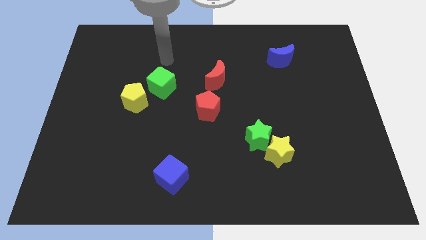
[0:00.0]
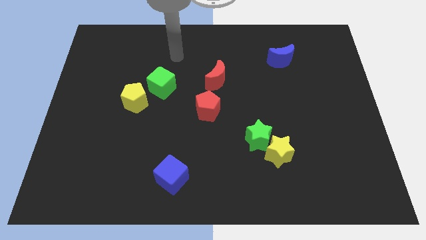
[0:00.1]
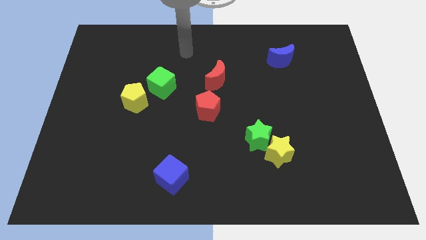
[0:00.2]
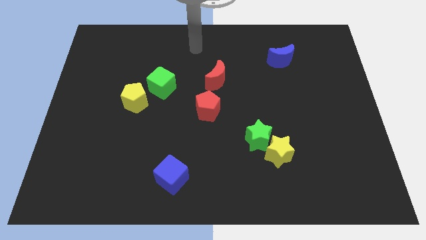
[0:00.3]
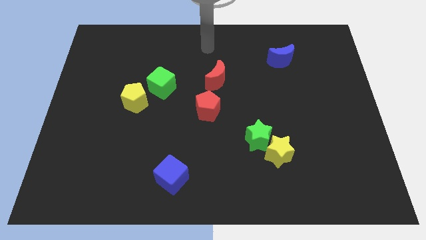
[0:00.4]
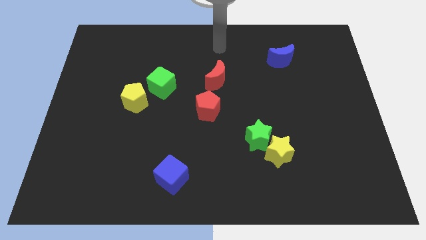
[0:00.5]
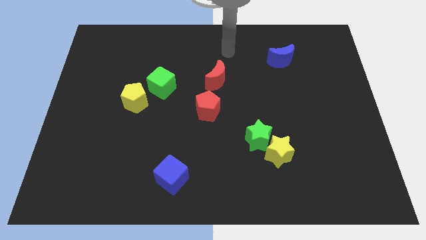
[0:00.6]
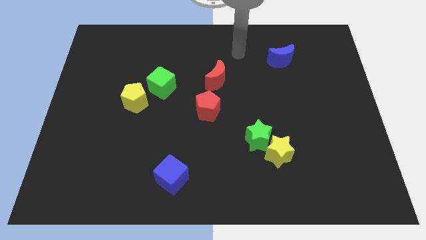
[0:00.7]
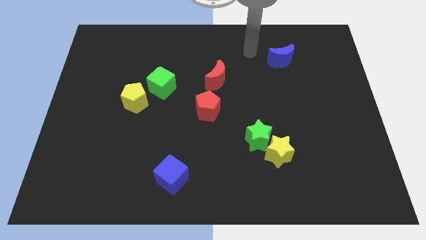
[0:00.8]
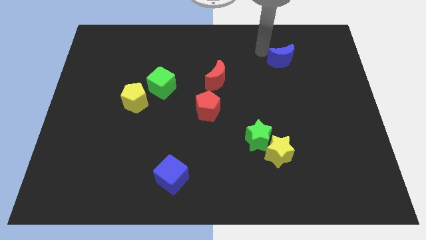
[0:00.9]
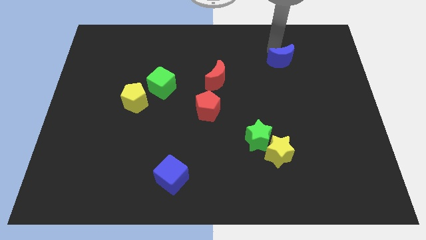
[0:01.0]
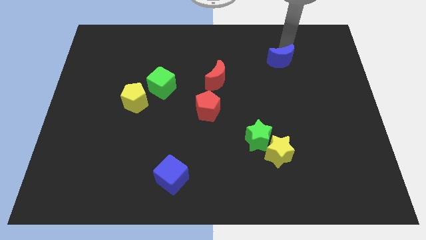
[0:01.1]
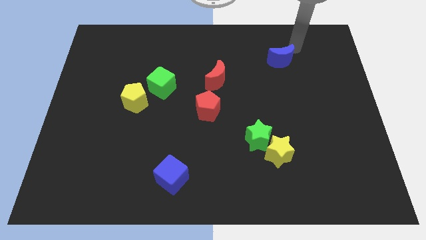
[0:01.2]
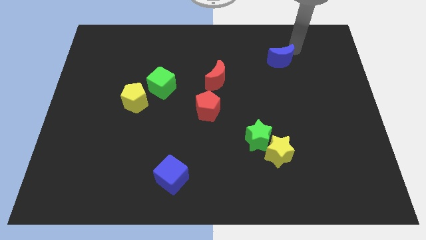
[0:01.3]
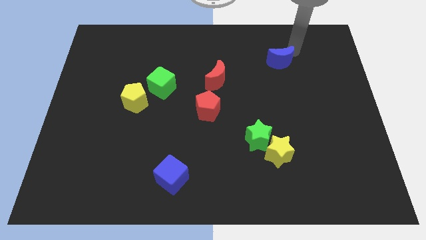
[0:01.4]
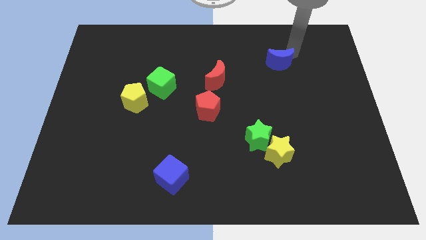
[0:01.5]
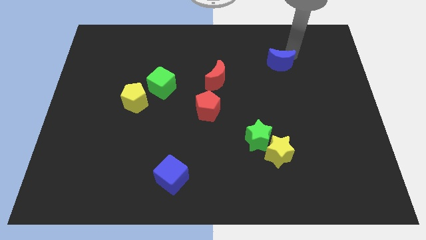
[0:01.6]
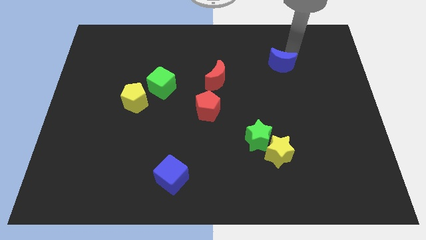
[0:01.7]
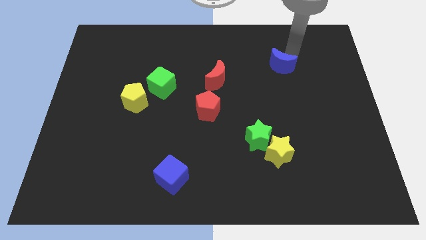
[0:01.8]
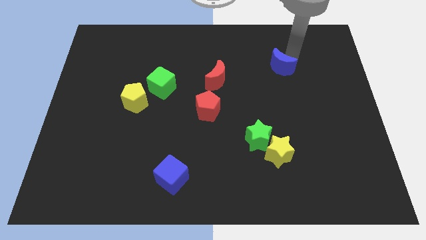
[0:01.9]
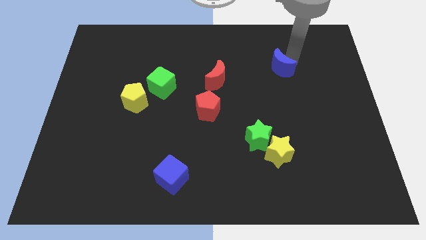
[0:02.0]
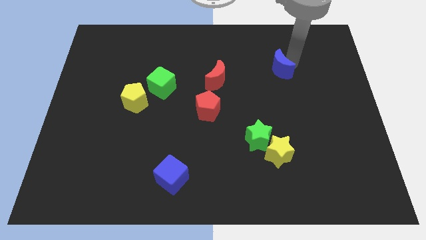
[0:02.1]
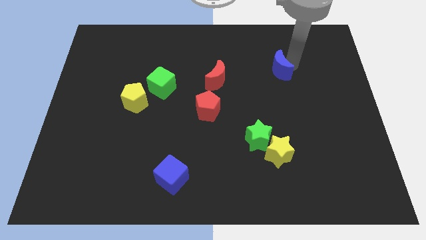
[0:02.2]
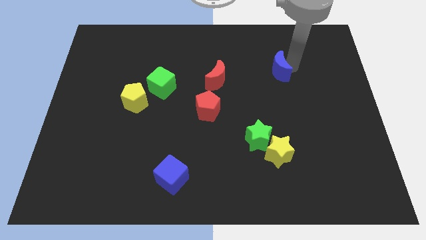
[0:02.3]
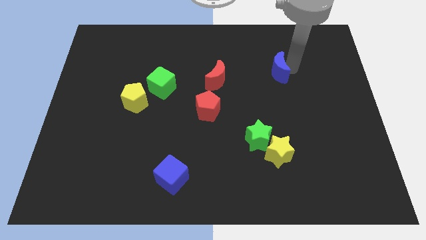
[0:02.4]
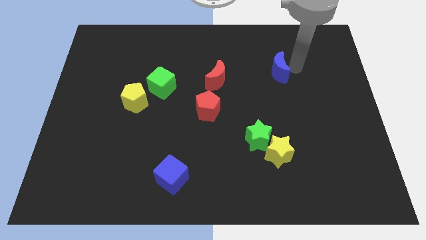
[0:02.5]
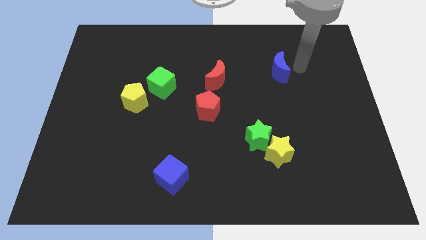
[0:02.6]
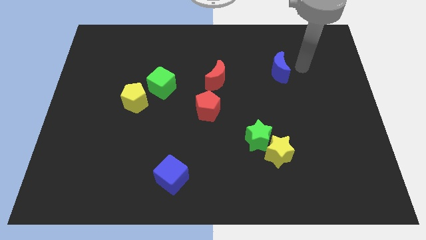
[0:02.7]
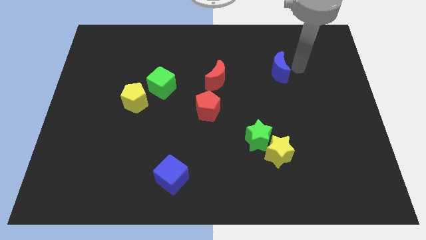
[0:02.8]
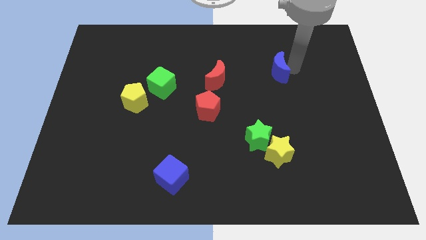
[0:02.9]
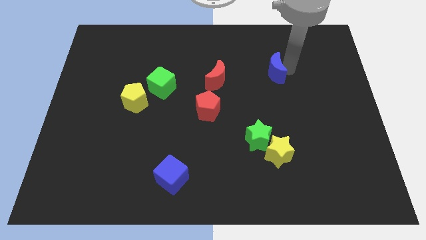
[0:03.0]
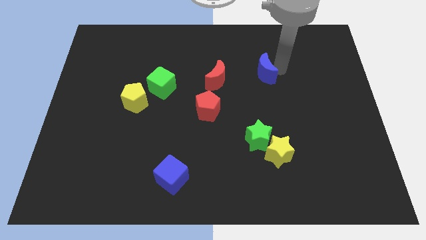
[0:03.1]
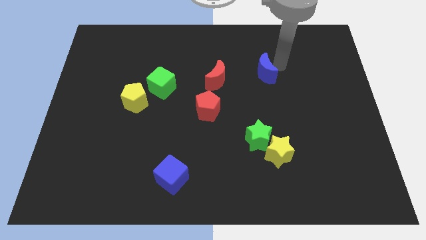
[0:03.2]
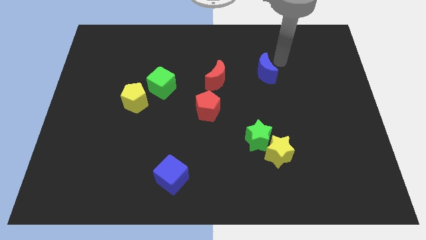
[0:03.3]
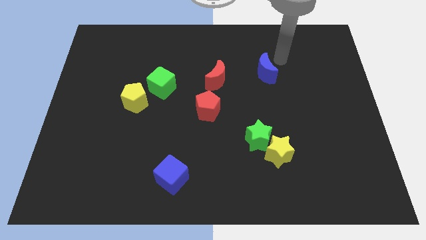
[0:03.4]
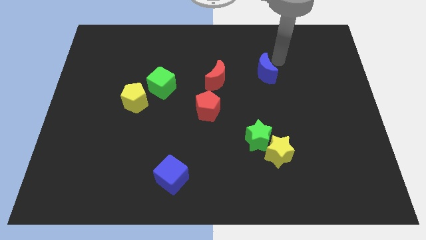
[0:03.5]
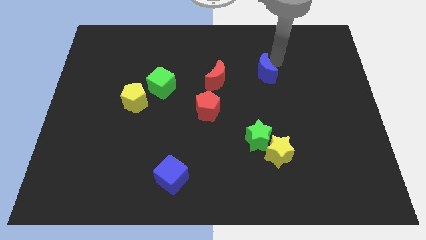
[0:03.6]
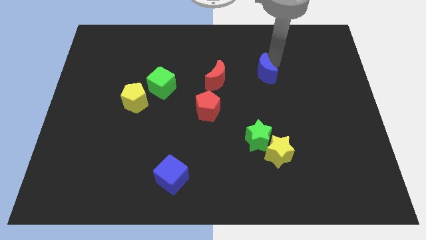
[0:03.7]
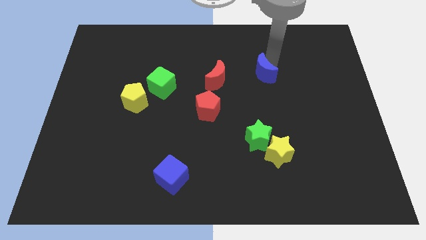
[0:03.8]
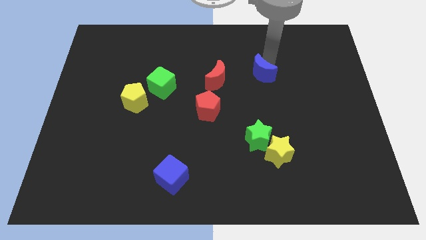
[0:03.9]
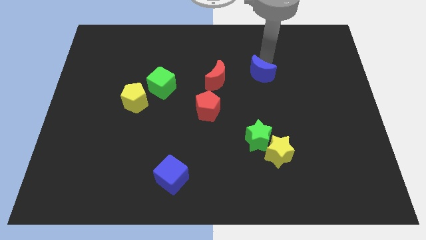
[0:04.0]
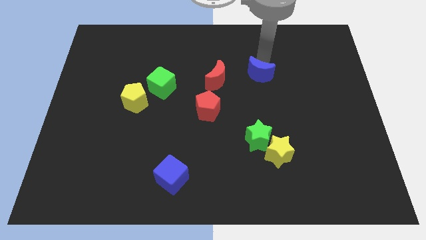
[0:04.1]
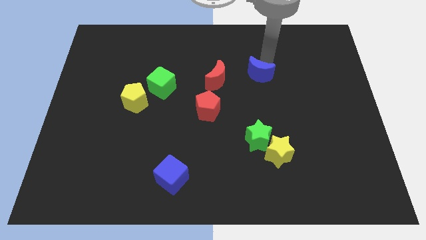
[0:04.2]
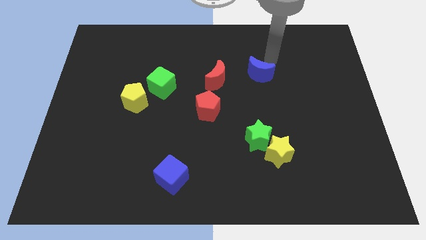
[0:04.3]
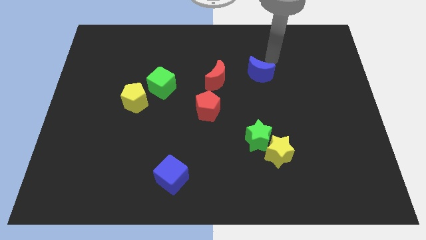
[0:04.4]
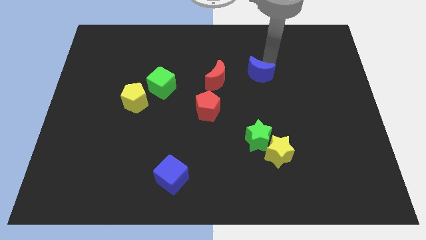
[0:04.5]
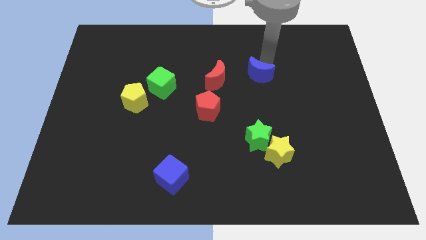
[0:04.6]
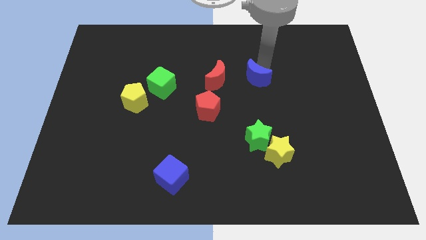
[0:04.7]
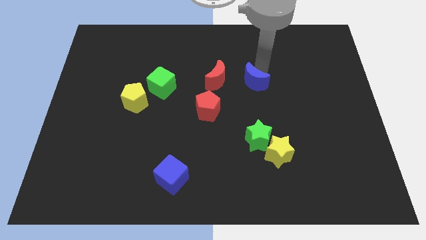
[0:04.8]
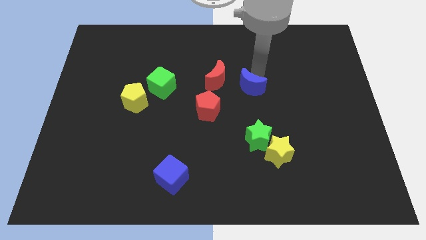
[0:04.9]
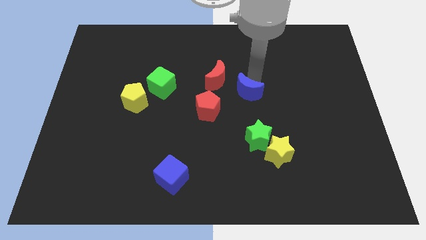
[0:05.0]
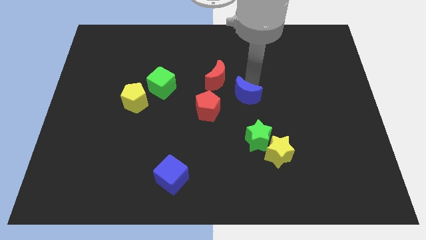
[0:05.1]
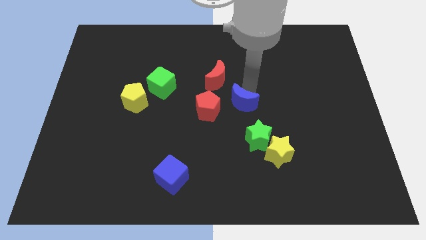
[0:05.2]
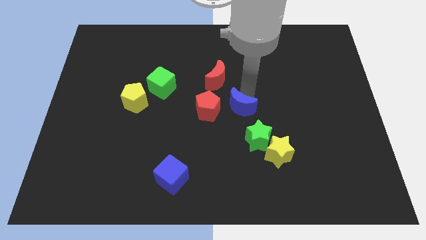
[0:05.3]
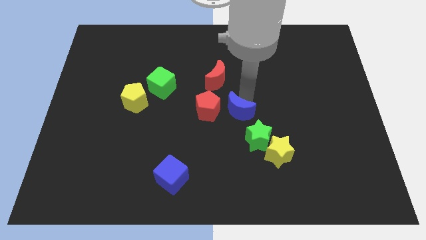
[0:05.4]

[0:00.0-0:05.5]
push the blue moon diagonally down and to the left

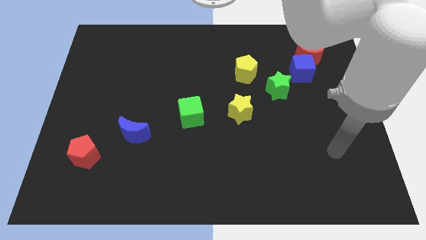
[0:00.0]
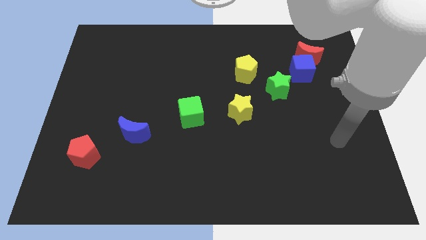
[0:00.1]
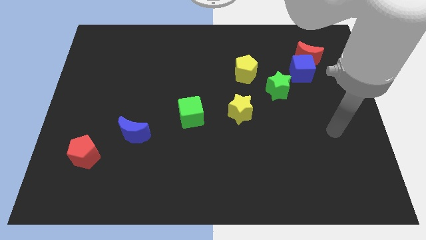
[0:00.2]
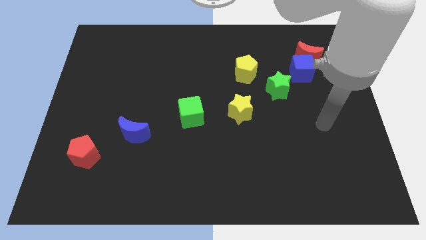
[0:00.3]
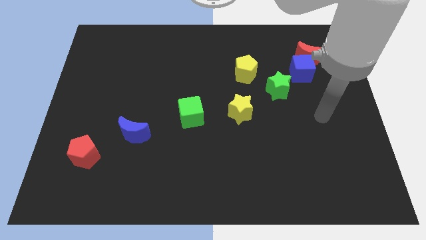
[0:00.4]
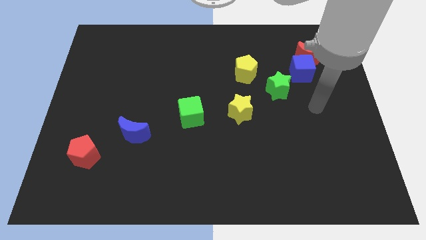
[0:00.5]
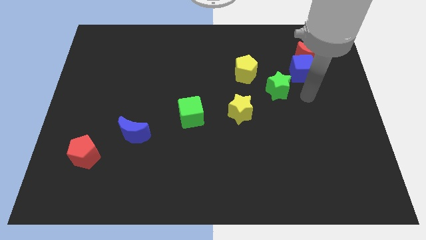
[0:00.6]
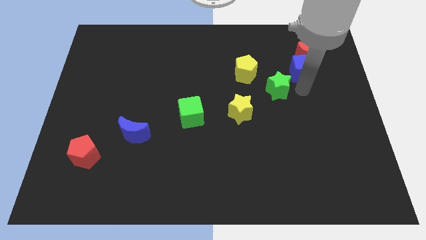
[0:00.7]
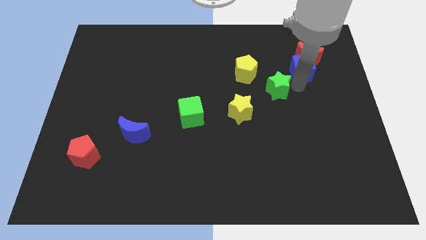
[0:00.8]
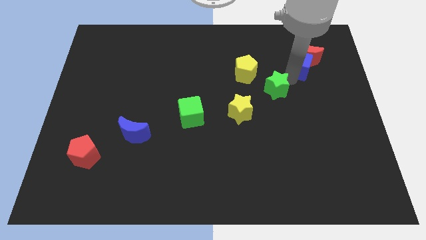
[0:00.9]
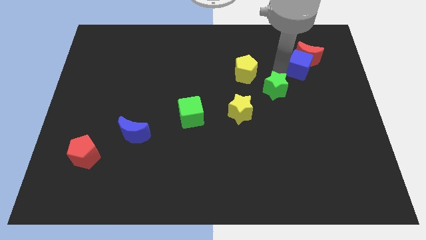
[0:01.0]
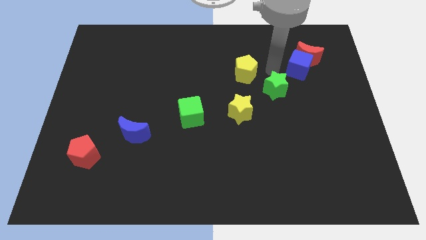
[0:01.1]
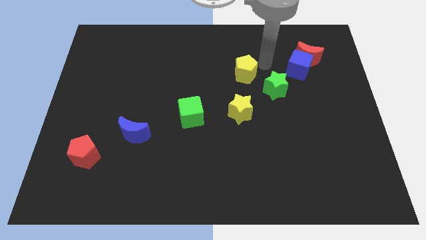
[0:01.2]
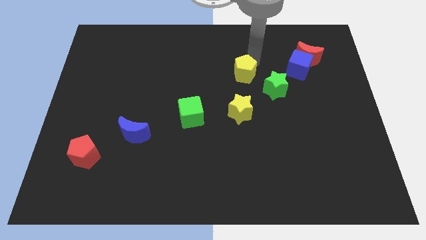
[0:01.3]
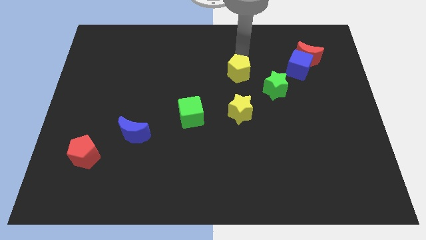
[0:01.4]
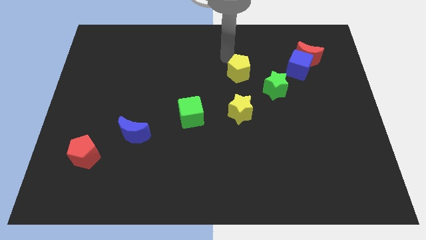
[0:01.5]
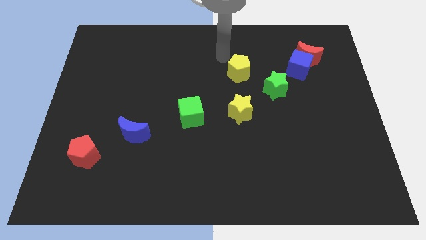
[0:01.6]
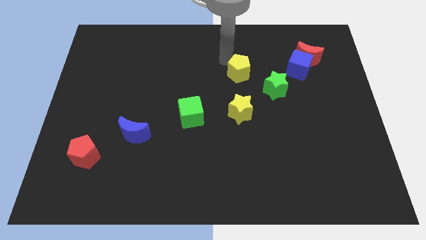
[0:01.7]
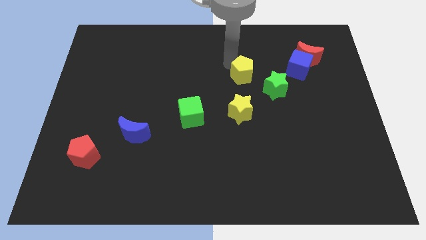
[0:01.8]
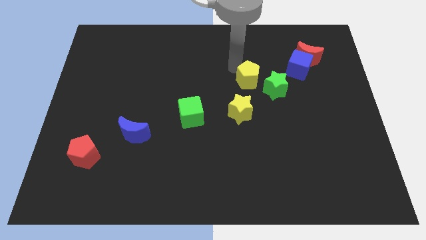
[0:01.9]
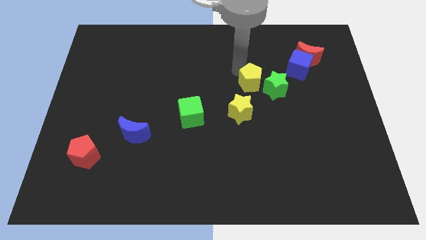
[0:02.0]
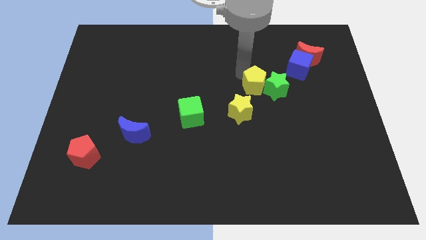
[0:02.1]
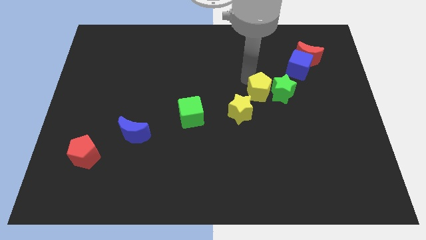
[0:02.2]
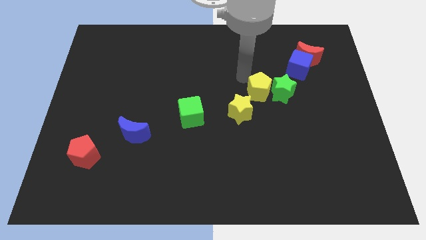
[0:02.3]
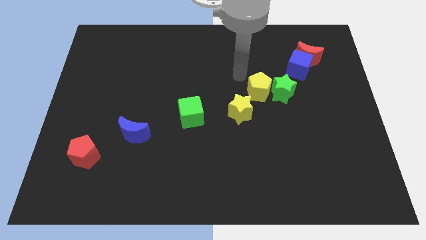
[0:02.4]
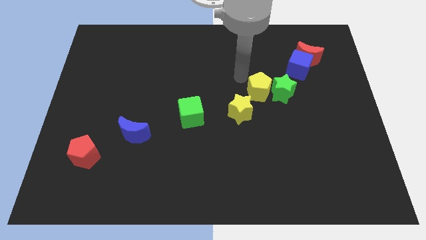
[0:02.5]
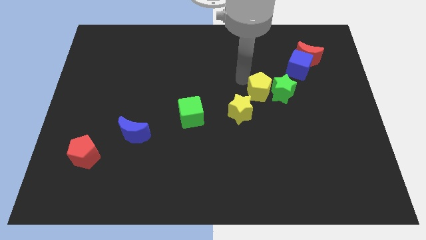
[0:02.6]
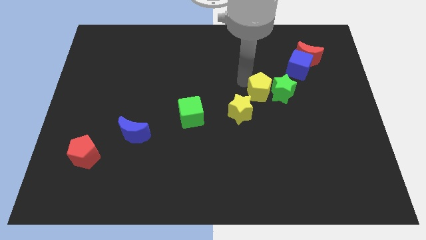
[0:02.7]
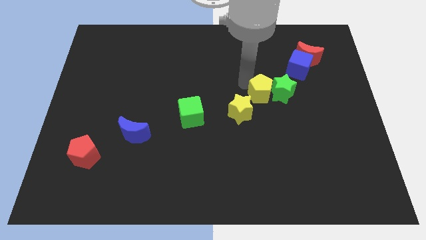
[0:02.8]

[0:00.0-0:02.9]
slide the yellow pentagon diagonally down and to the right a little
